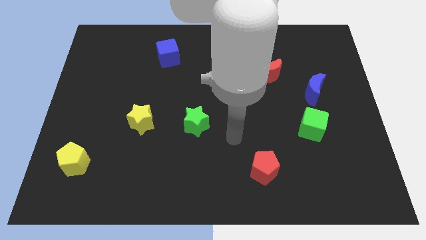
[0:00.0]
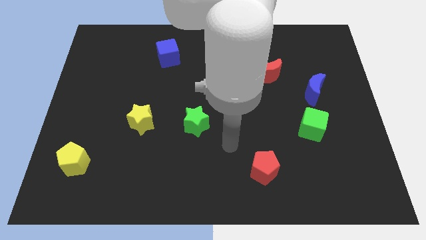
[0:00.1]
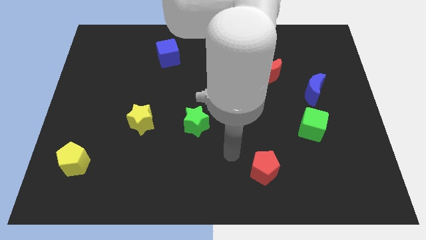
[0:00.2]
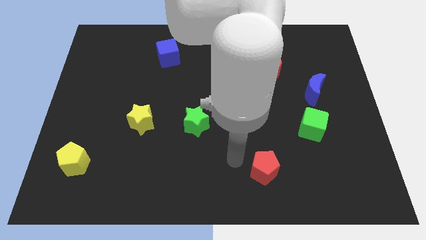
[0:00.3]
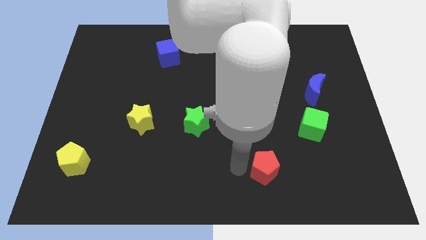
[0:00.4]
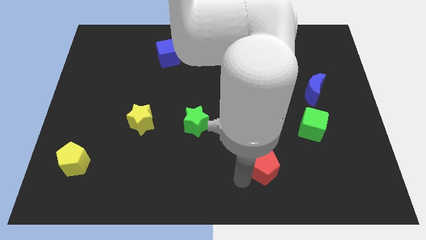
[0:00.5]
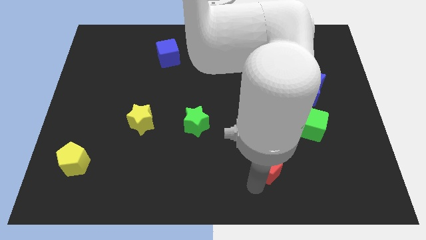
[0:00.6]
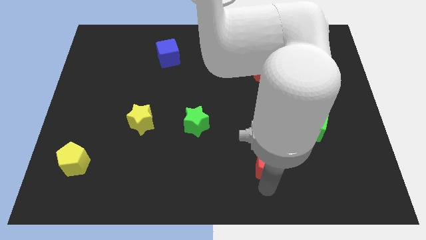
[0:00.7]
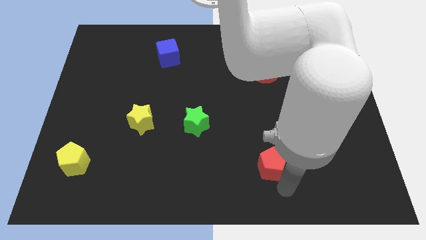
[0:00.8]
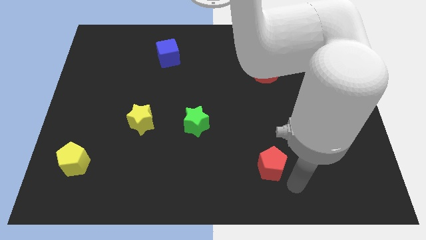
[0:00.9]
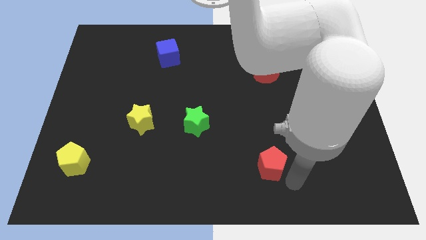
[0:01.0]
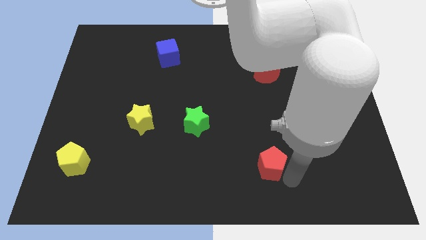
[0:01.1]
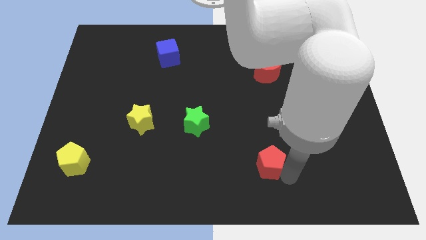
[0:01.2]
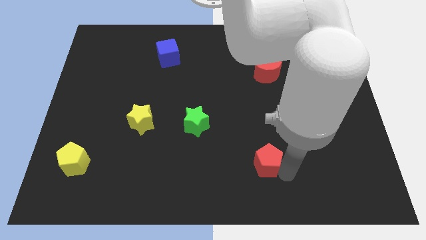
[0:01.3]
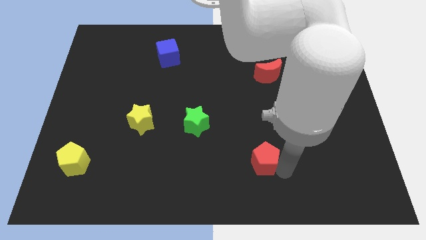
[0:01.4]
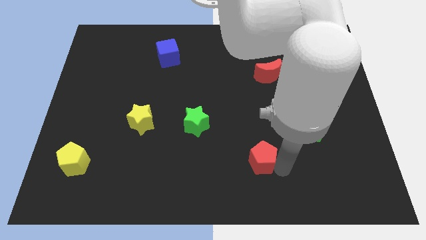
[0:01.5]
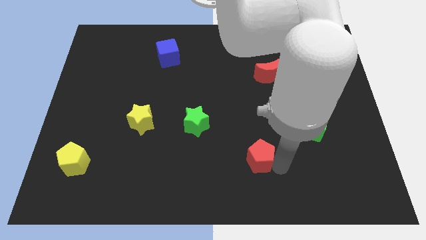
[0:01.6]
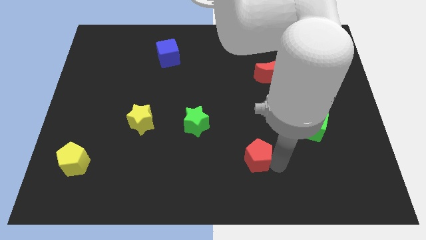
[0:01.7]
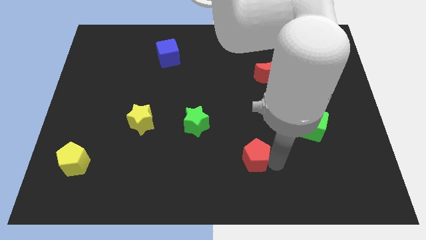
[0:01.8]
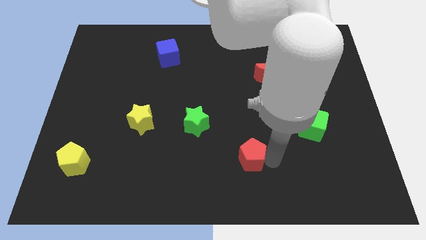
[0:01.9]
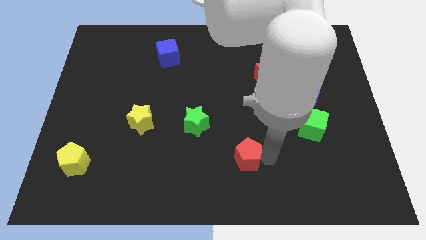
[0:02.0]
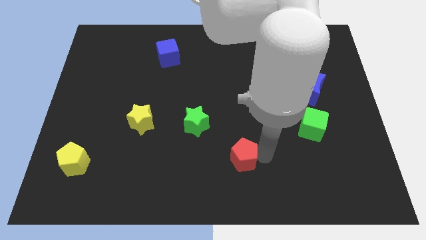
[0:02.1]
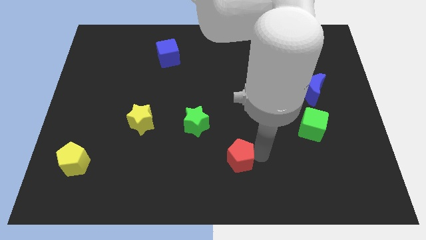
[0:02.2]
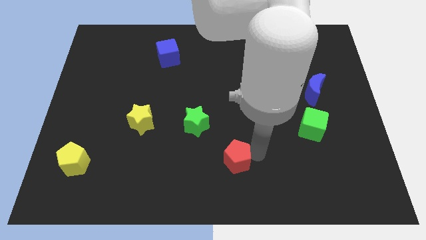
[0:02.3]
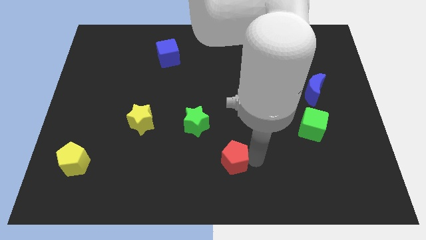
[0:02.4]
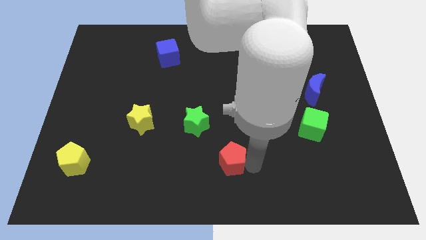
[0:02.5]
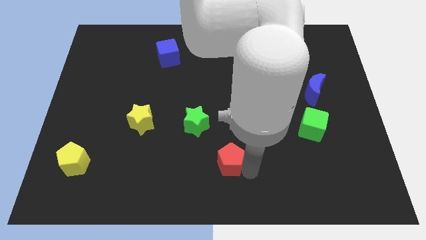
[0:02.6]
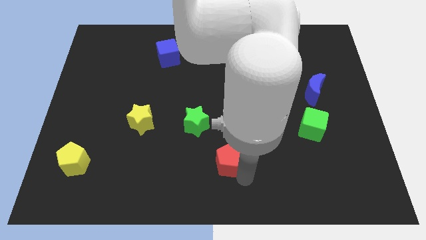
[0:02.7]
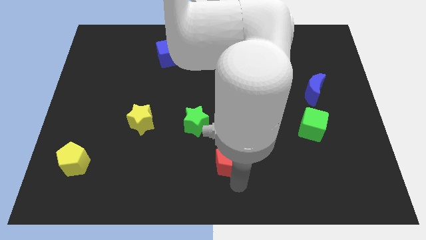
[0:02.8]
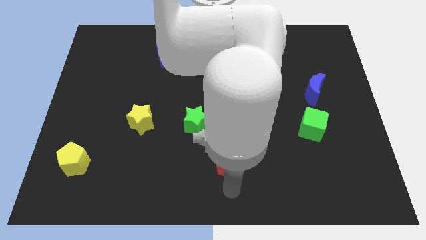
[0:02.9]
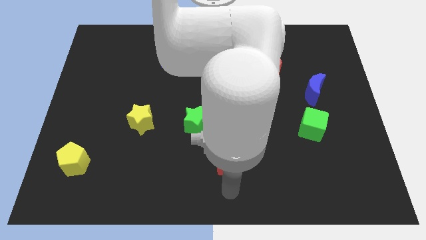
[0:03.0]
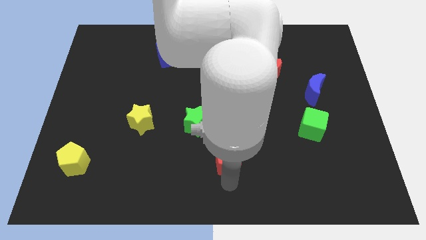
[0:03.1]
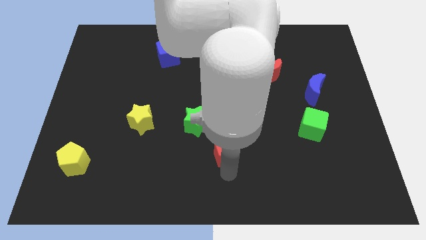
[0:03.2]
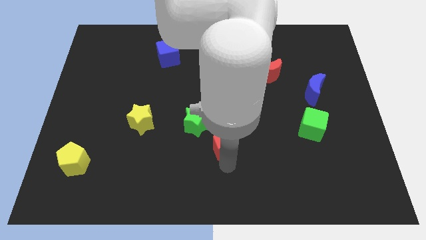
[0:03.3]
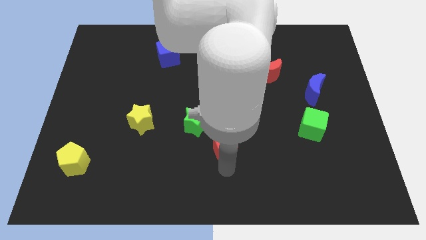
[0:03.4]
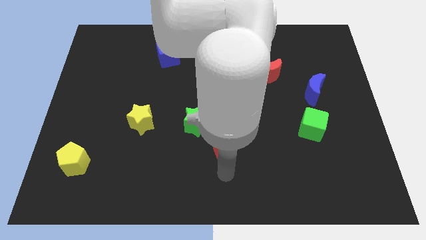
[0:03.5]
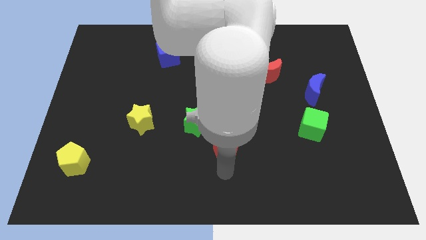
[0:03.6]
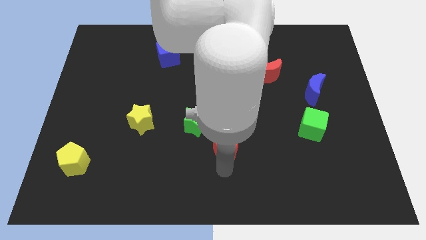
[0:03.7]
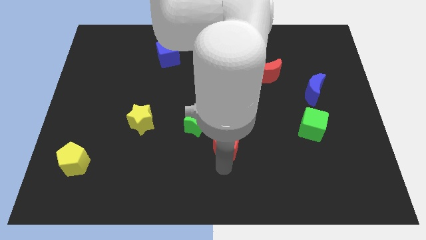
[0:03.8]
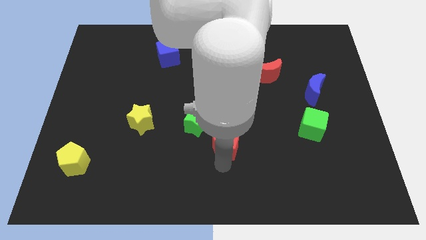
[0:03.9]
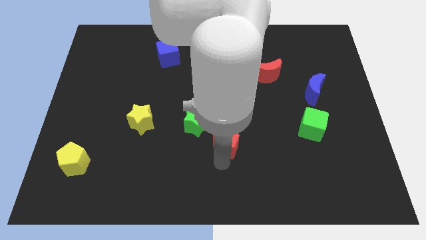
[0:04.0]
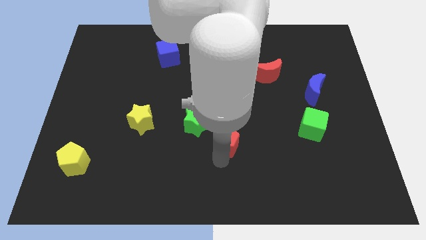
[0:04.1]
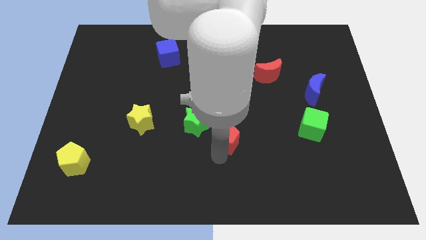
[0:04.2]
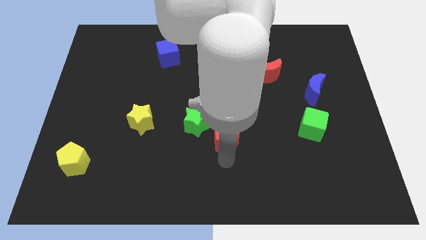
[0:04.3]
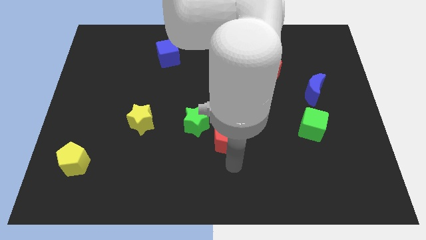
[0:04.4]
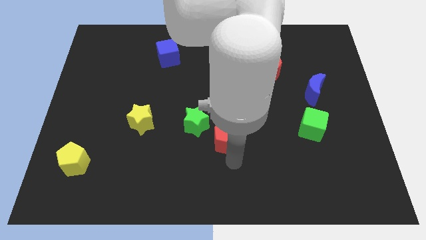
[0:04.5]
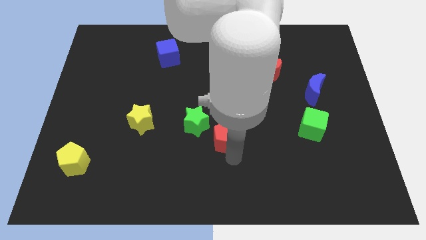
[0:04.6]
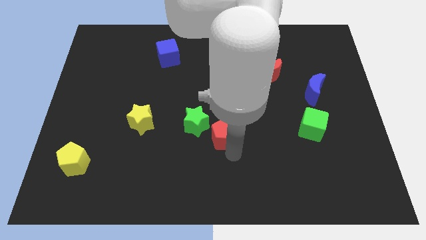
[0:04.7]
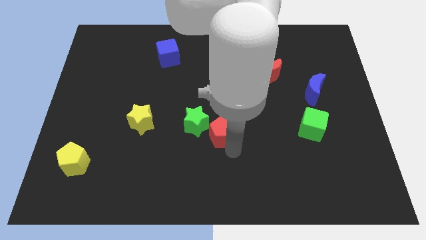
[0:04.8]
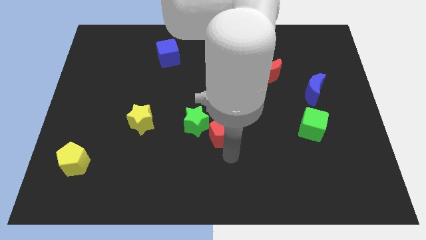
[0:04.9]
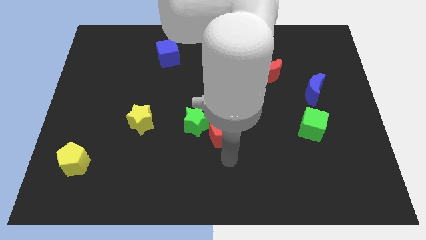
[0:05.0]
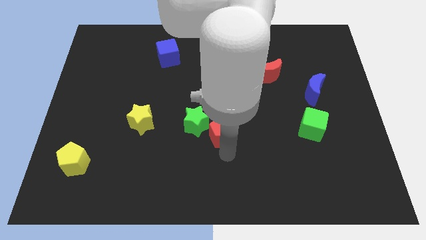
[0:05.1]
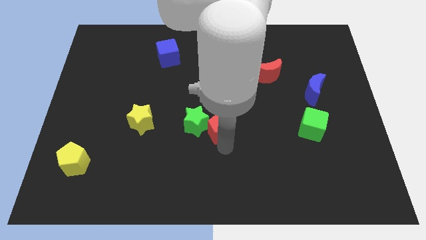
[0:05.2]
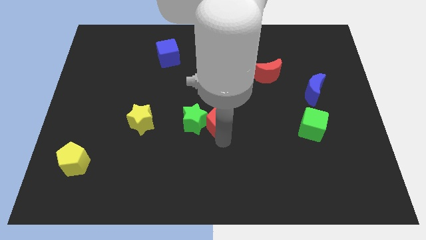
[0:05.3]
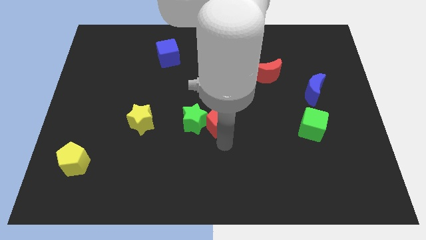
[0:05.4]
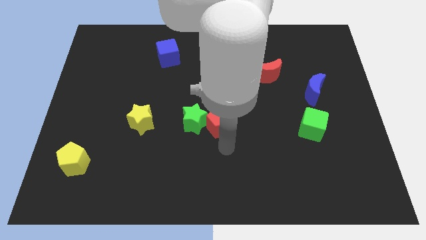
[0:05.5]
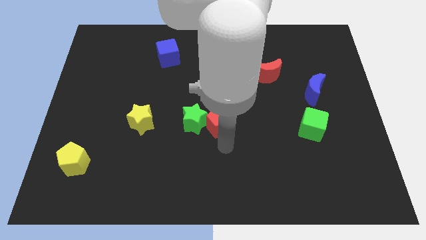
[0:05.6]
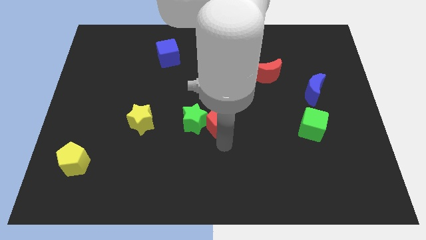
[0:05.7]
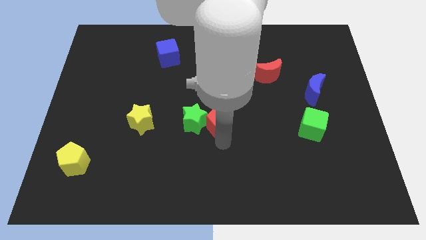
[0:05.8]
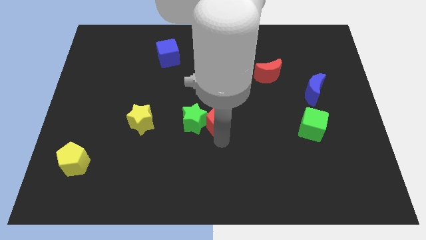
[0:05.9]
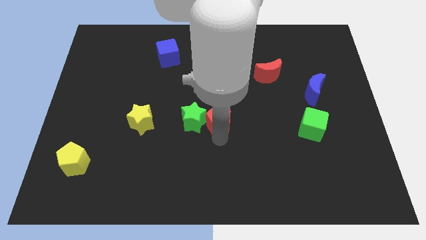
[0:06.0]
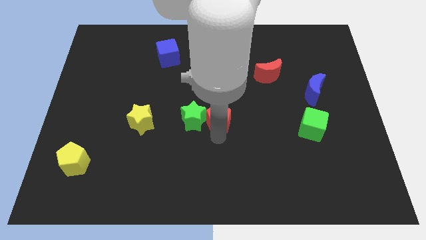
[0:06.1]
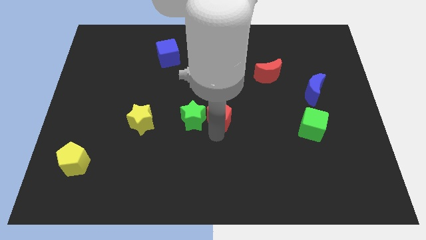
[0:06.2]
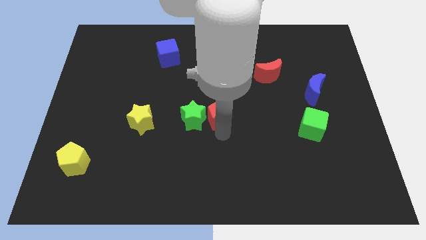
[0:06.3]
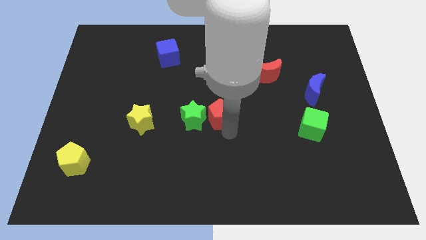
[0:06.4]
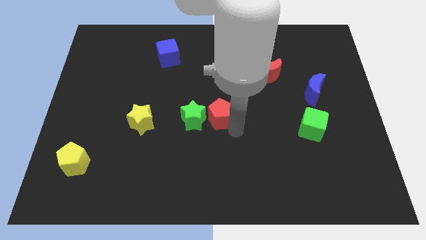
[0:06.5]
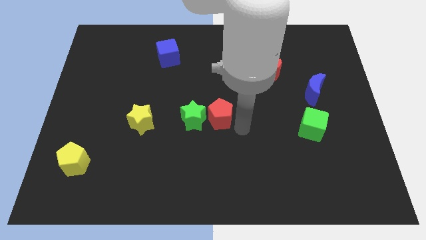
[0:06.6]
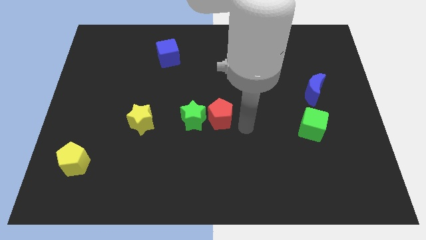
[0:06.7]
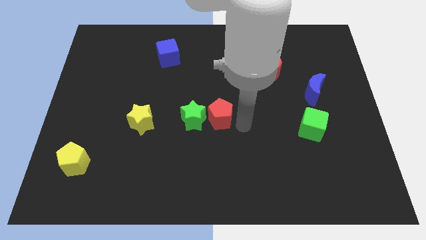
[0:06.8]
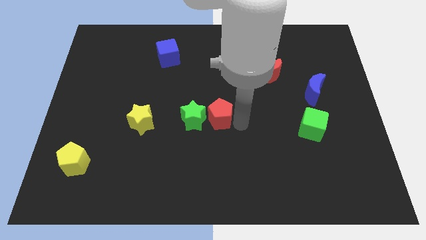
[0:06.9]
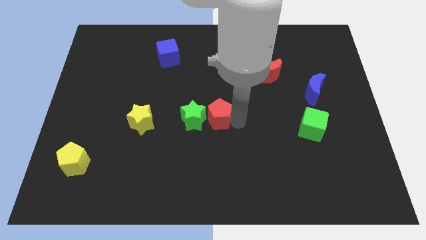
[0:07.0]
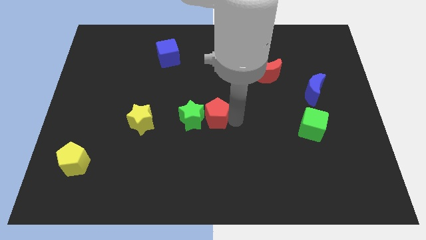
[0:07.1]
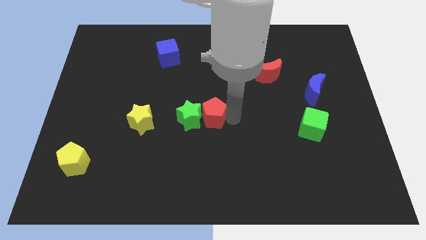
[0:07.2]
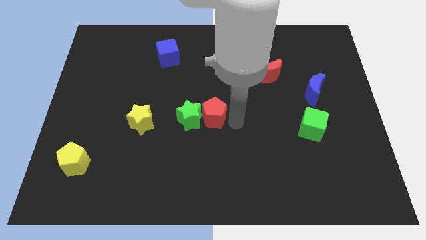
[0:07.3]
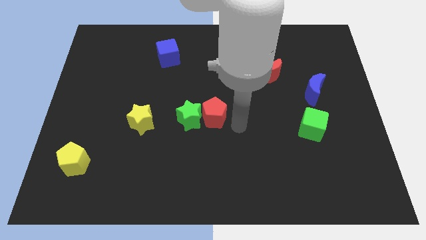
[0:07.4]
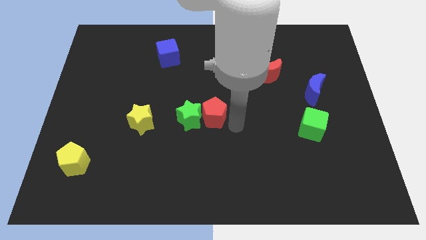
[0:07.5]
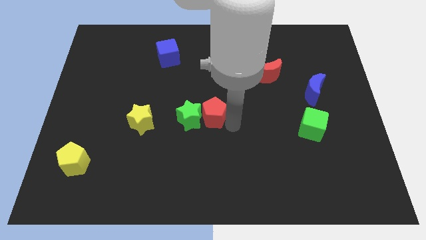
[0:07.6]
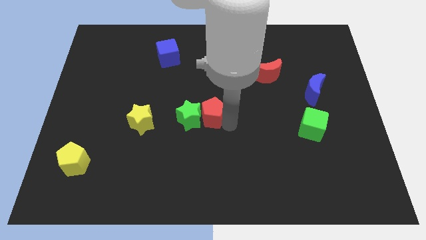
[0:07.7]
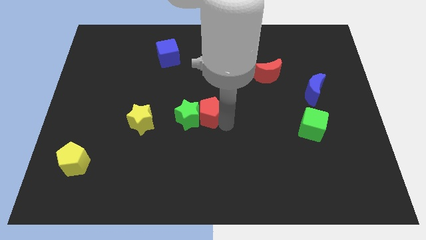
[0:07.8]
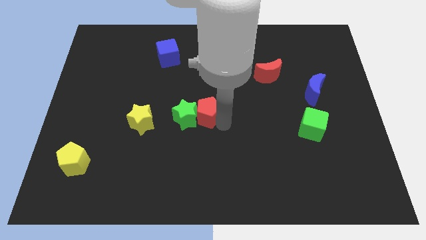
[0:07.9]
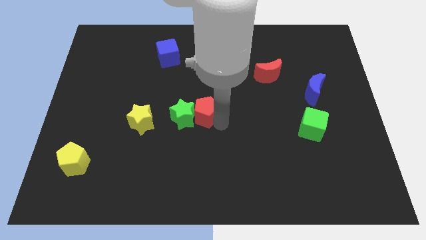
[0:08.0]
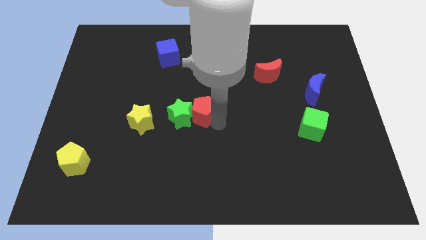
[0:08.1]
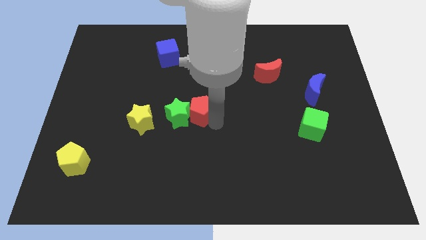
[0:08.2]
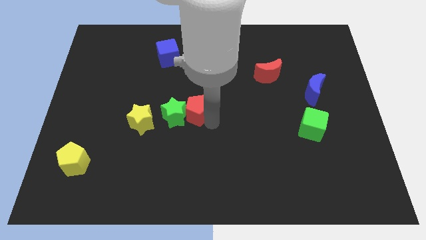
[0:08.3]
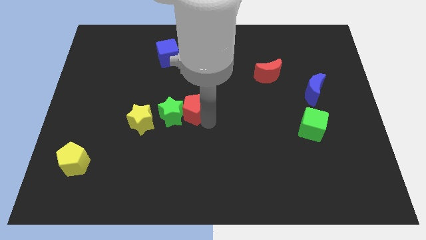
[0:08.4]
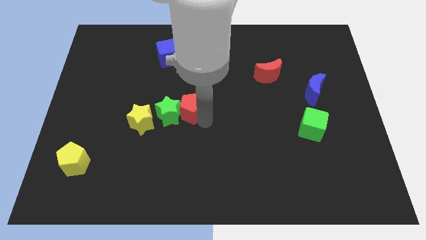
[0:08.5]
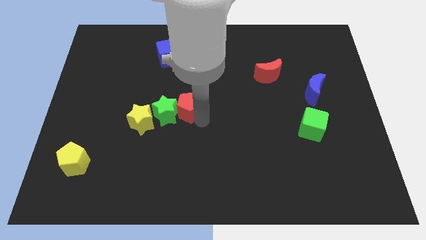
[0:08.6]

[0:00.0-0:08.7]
push the red pentagon to the top right of the yellow star
